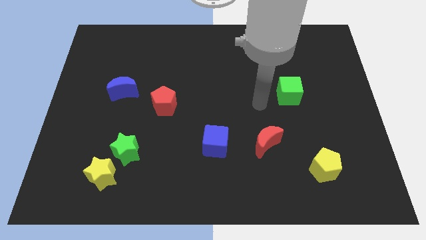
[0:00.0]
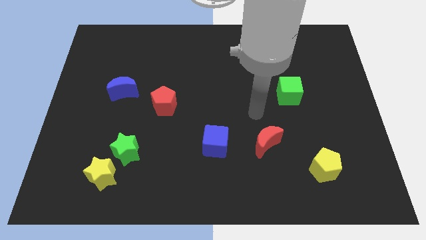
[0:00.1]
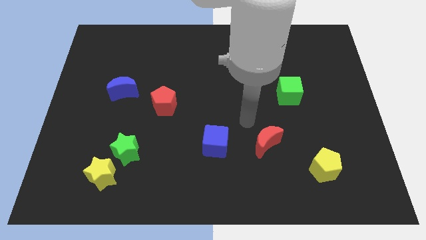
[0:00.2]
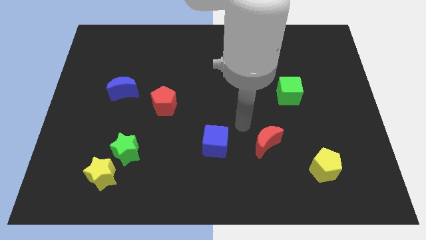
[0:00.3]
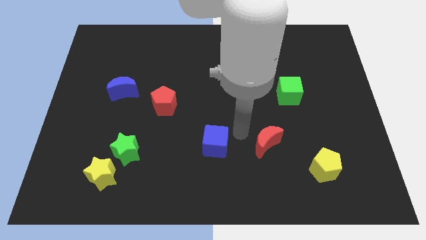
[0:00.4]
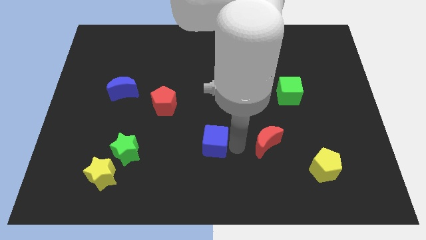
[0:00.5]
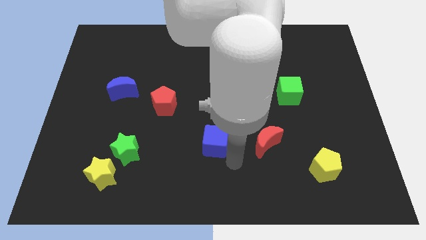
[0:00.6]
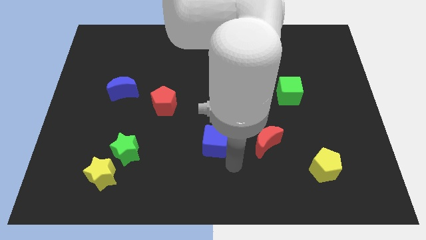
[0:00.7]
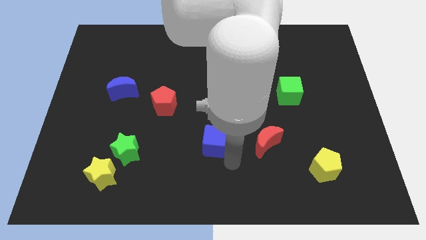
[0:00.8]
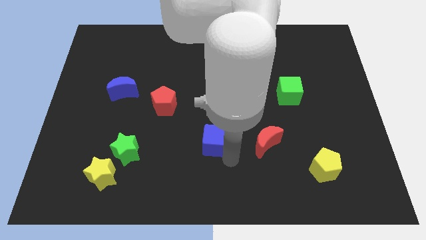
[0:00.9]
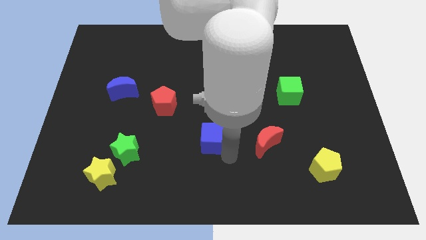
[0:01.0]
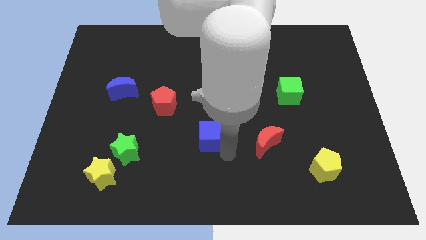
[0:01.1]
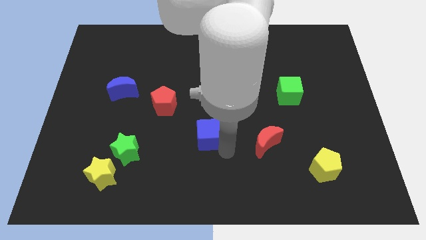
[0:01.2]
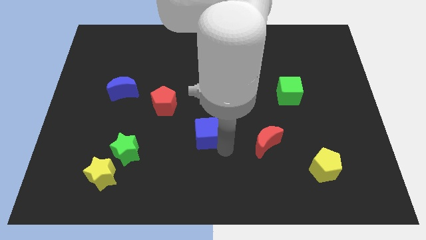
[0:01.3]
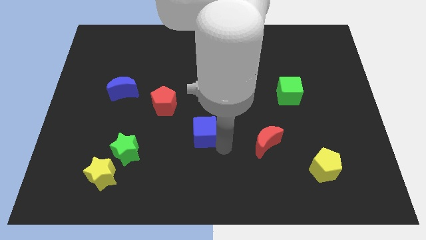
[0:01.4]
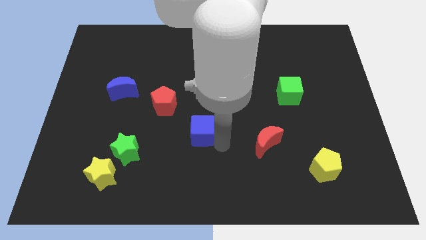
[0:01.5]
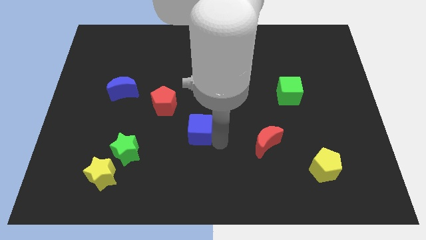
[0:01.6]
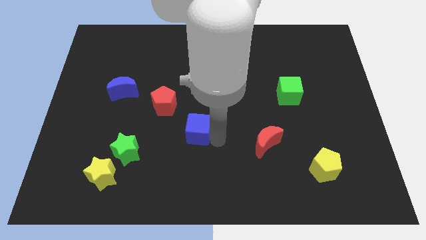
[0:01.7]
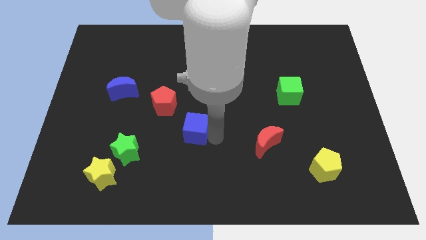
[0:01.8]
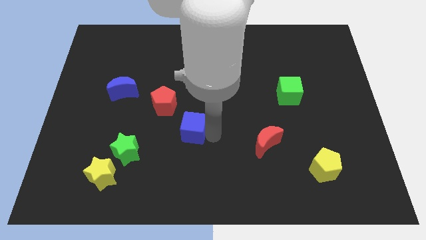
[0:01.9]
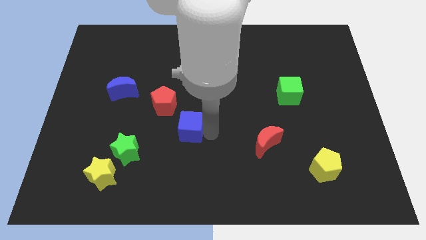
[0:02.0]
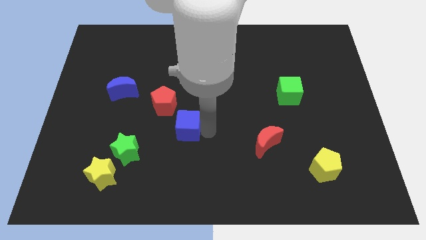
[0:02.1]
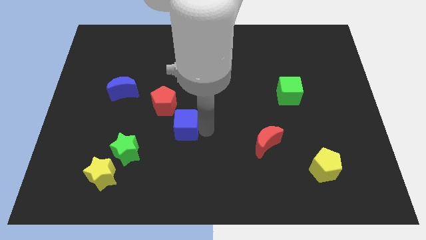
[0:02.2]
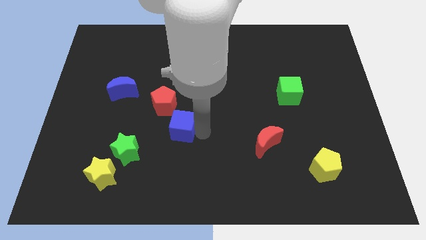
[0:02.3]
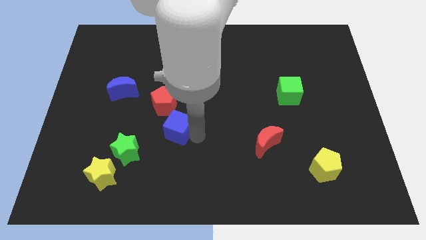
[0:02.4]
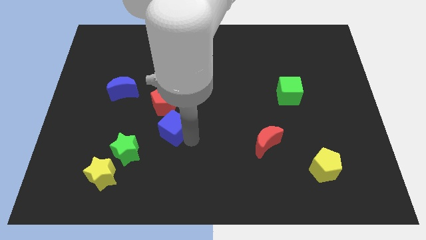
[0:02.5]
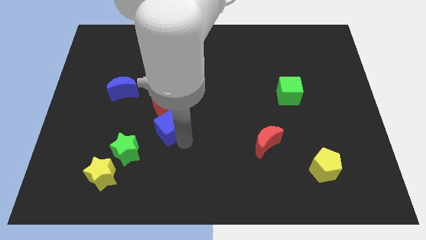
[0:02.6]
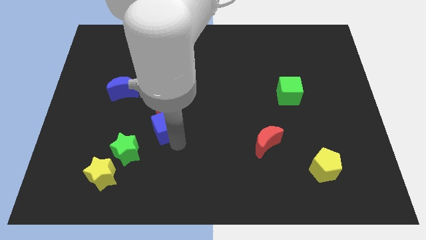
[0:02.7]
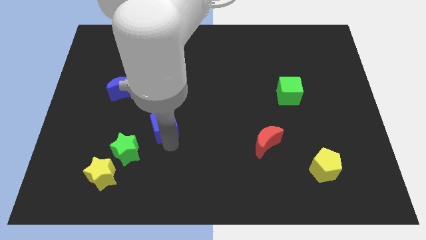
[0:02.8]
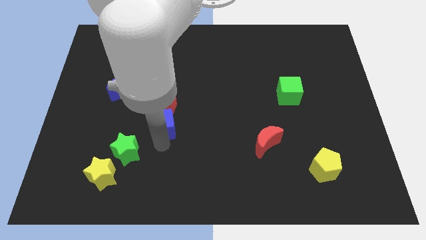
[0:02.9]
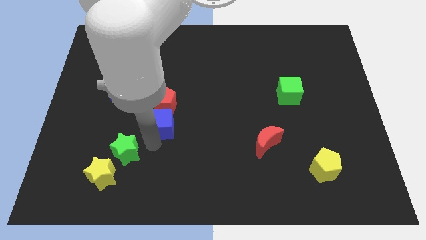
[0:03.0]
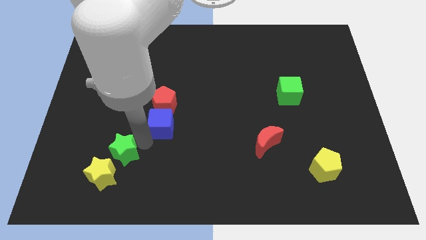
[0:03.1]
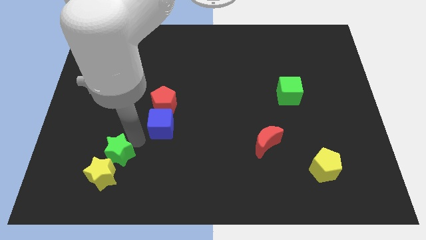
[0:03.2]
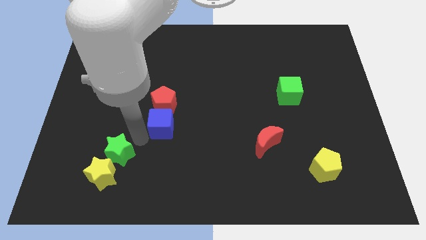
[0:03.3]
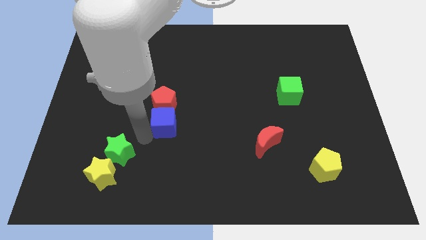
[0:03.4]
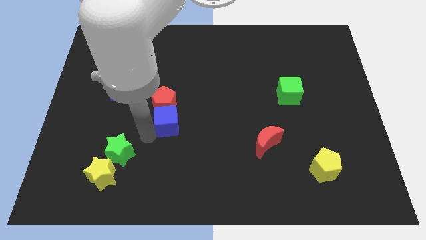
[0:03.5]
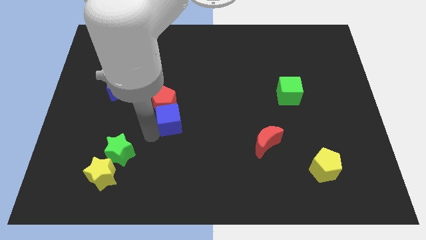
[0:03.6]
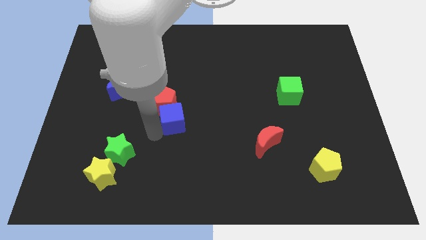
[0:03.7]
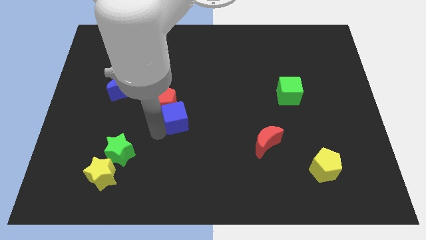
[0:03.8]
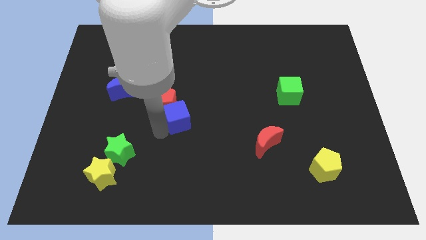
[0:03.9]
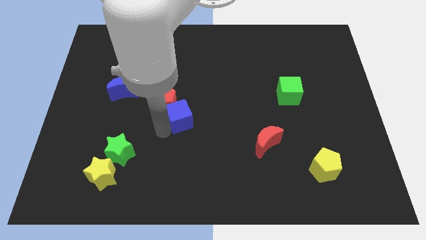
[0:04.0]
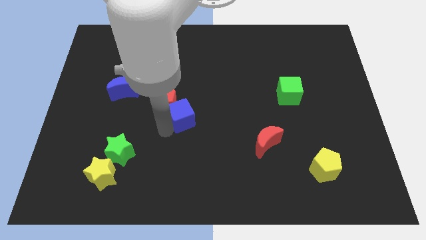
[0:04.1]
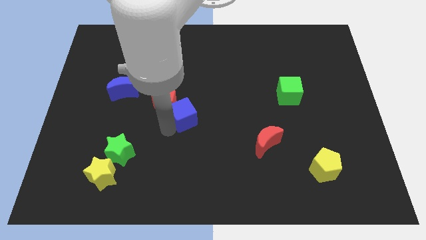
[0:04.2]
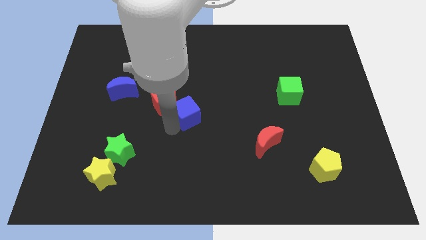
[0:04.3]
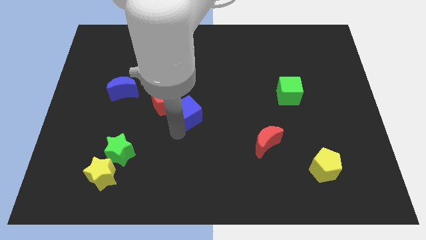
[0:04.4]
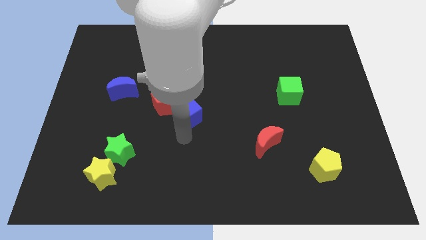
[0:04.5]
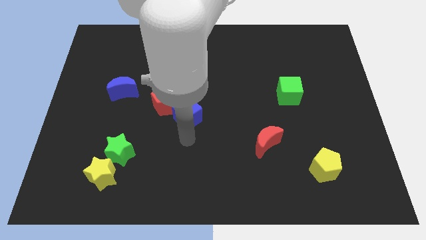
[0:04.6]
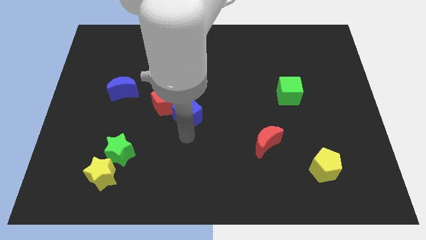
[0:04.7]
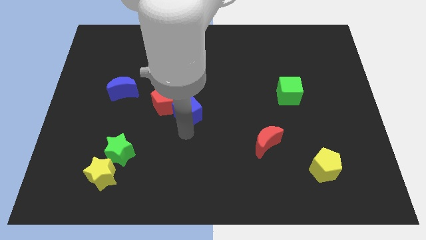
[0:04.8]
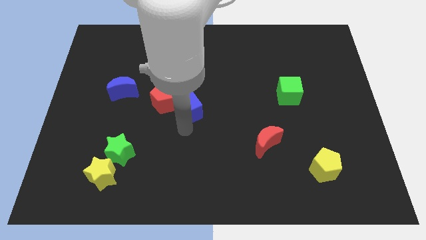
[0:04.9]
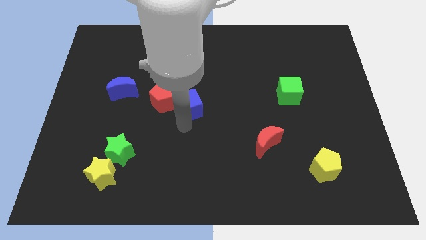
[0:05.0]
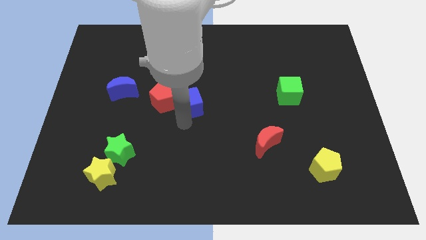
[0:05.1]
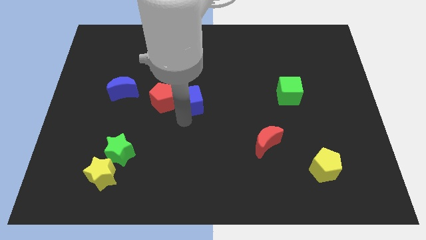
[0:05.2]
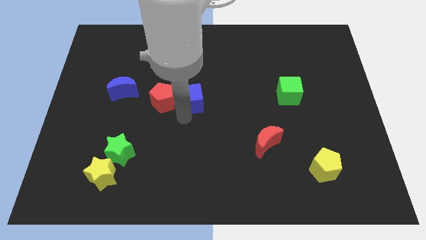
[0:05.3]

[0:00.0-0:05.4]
move the blue cube to the top right of the red pentagon

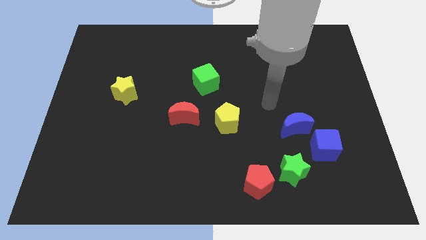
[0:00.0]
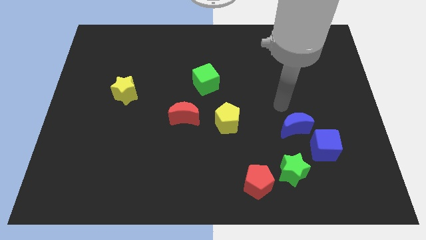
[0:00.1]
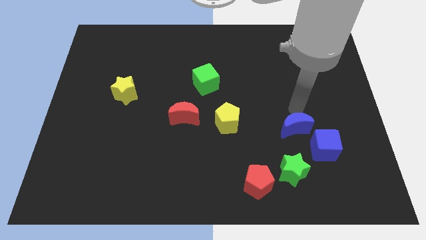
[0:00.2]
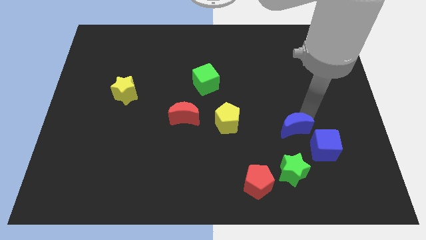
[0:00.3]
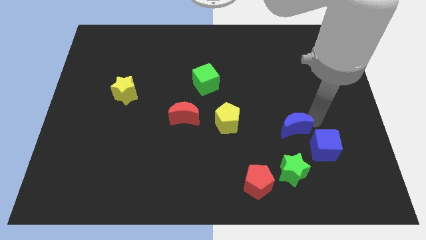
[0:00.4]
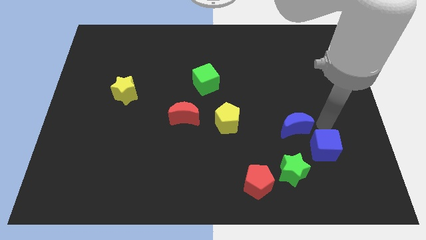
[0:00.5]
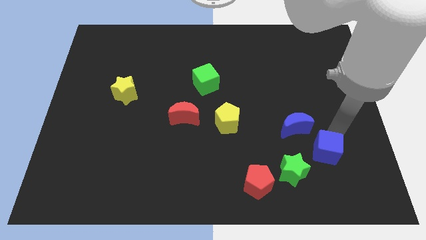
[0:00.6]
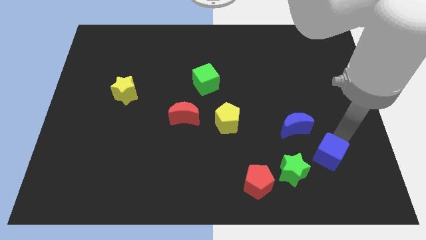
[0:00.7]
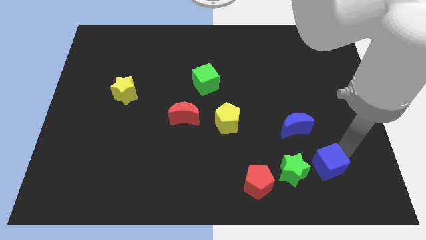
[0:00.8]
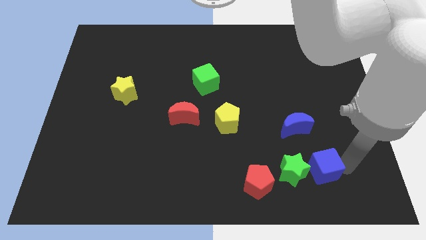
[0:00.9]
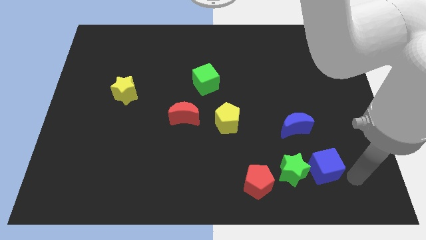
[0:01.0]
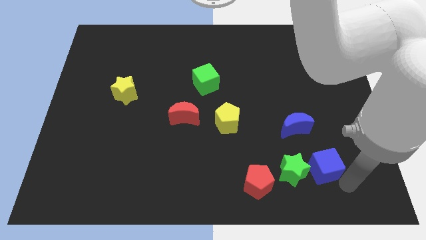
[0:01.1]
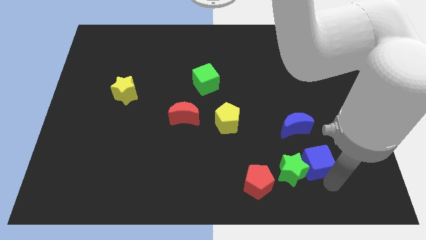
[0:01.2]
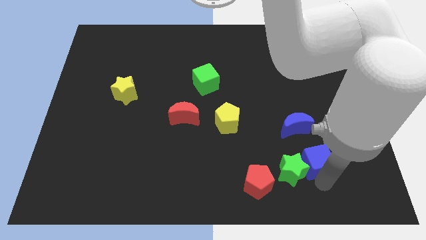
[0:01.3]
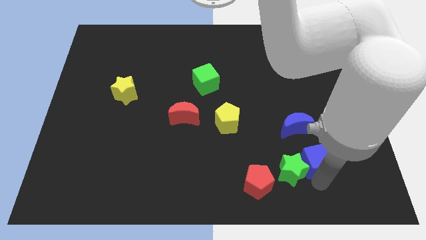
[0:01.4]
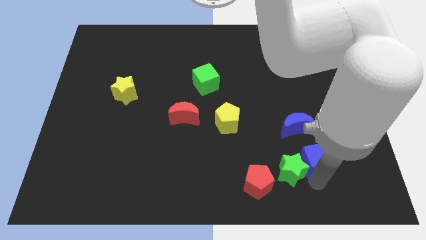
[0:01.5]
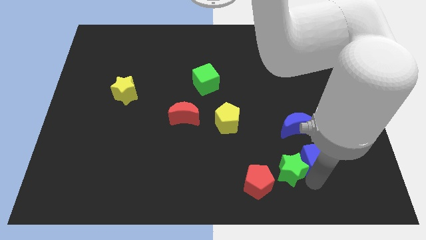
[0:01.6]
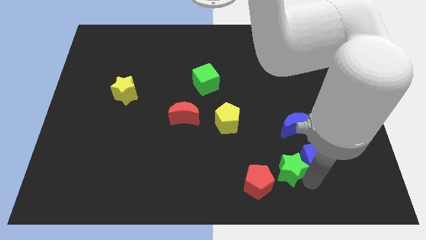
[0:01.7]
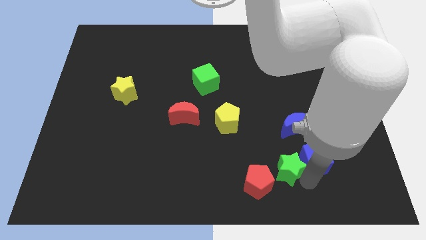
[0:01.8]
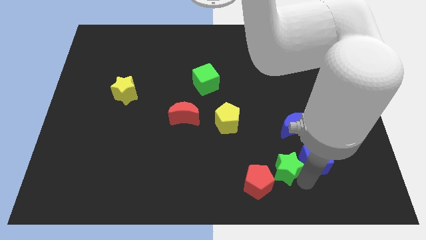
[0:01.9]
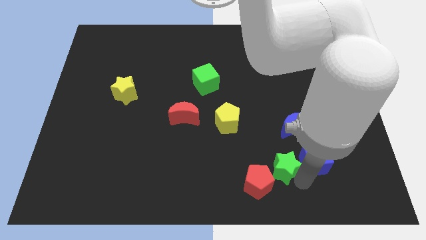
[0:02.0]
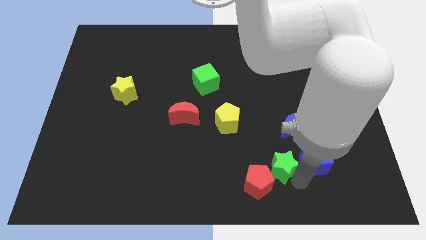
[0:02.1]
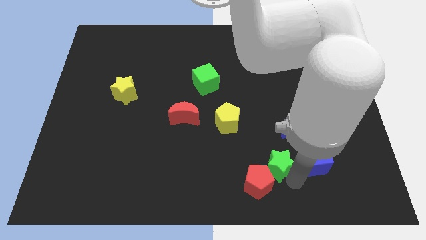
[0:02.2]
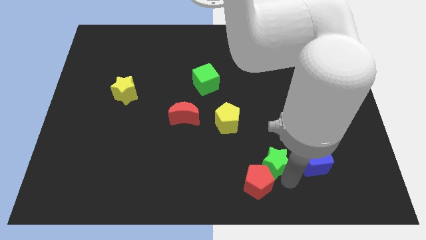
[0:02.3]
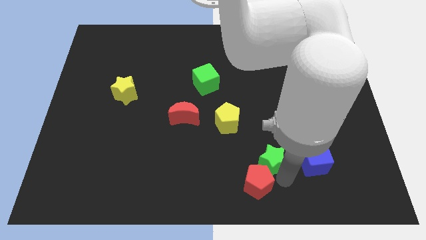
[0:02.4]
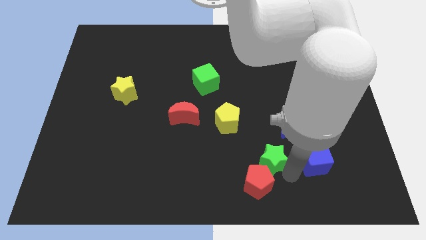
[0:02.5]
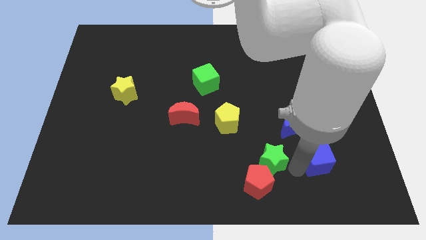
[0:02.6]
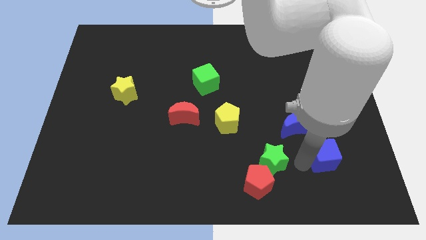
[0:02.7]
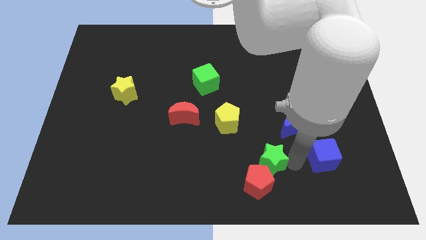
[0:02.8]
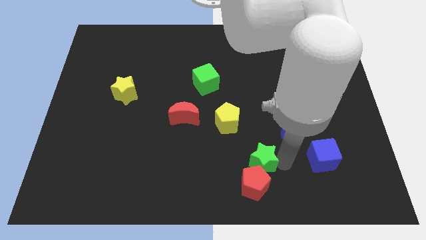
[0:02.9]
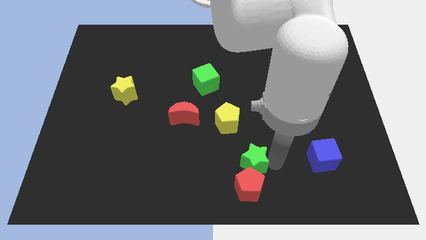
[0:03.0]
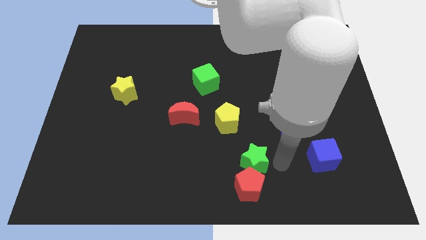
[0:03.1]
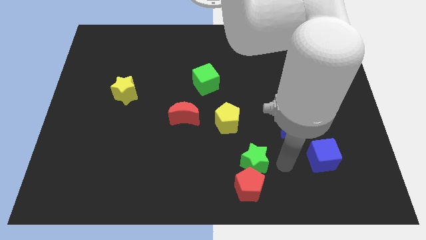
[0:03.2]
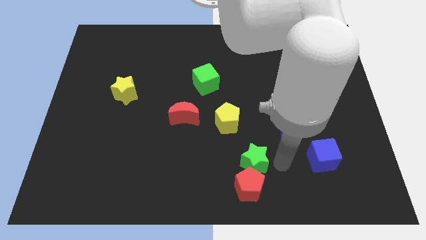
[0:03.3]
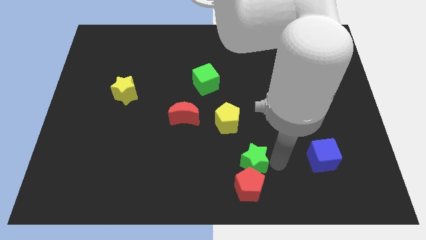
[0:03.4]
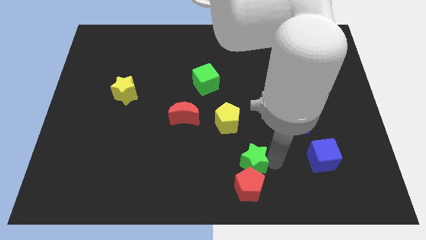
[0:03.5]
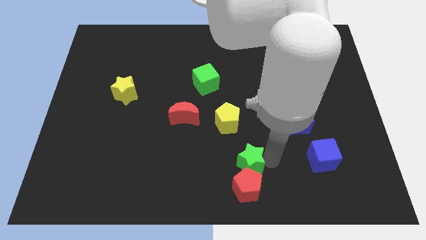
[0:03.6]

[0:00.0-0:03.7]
put the green star to the bottom side of the yellow pentagon
